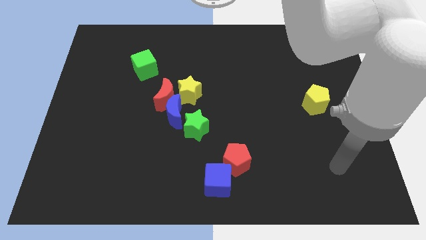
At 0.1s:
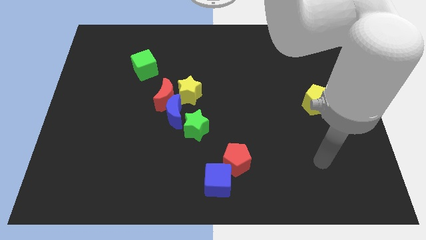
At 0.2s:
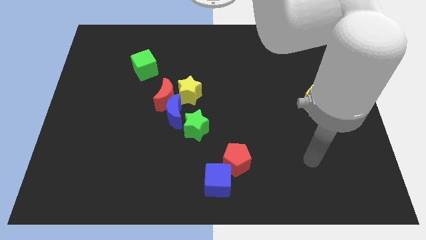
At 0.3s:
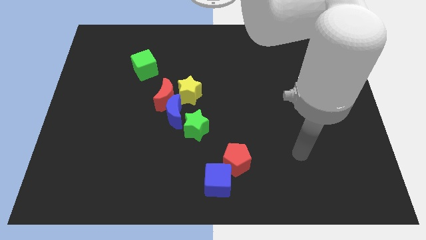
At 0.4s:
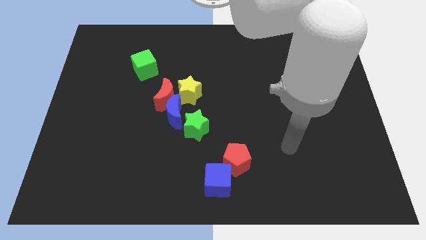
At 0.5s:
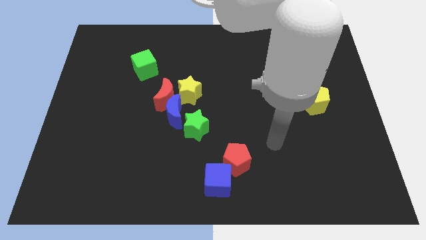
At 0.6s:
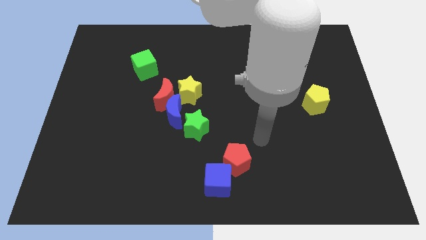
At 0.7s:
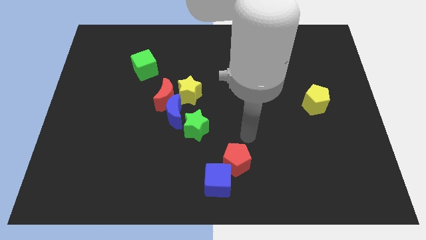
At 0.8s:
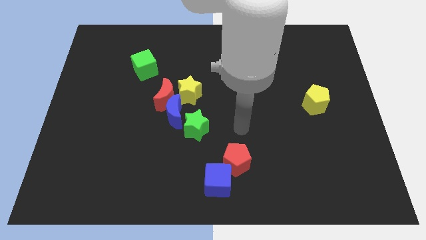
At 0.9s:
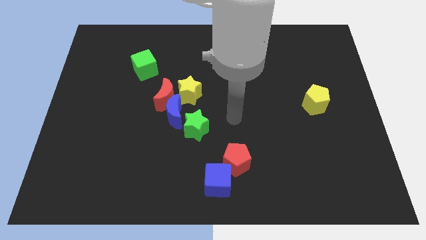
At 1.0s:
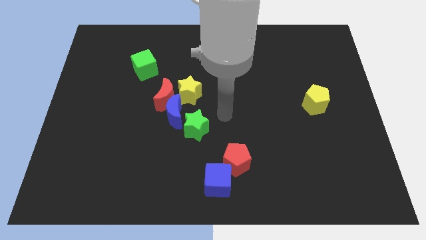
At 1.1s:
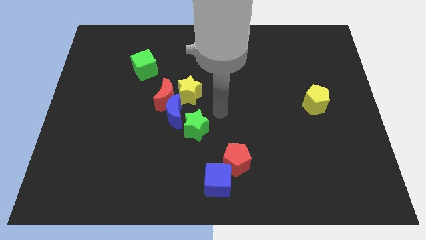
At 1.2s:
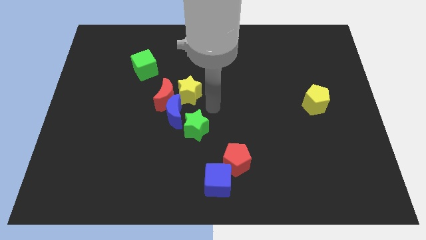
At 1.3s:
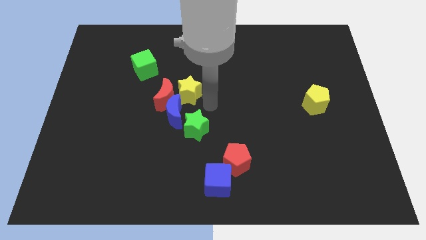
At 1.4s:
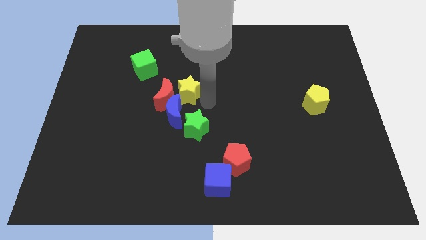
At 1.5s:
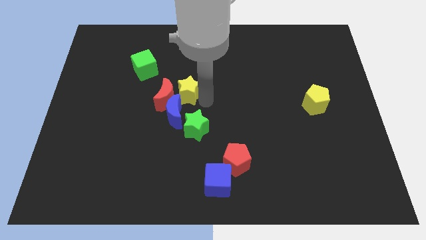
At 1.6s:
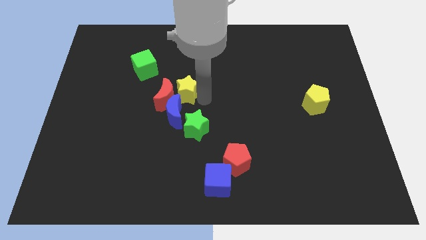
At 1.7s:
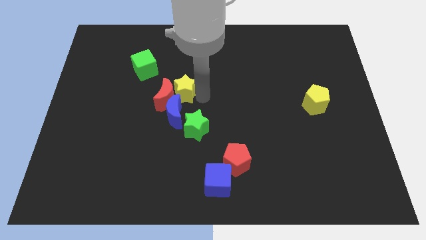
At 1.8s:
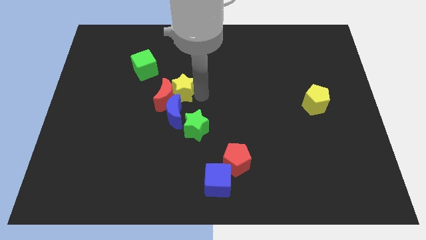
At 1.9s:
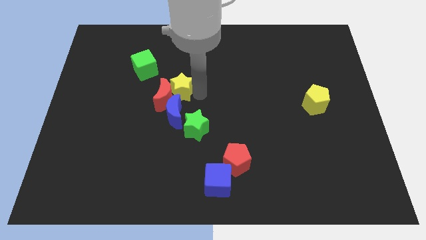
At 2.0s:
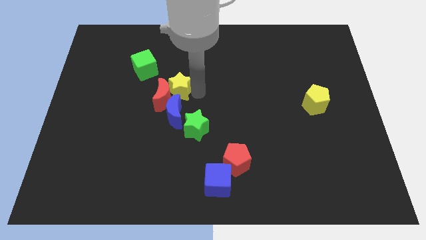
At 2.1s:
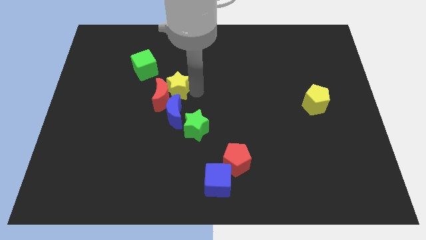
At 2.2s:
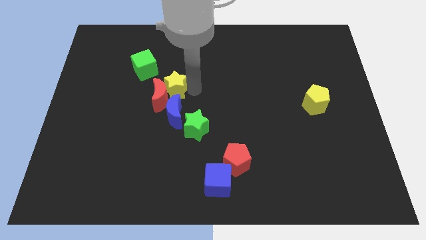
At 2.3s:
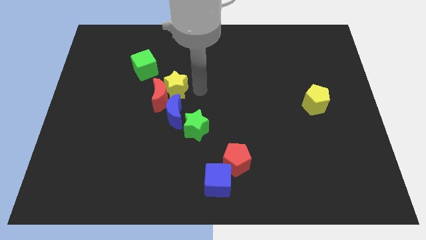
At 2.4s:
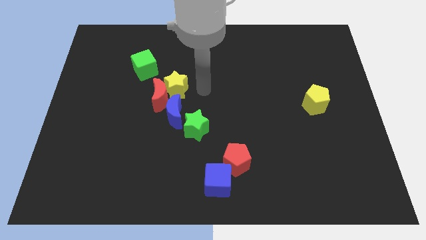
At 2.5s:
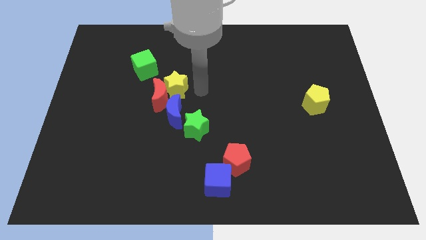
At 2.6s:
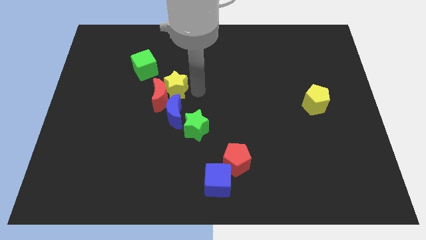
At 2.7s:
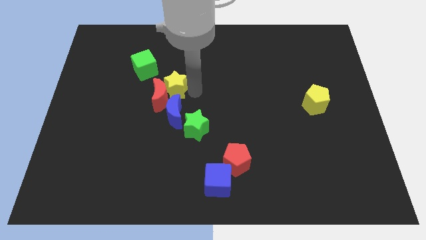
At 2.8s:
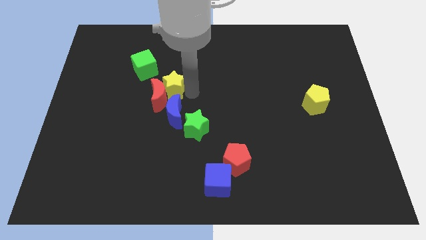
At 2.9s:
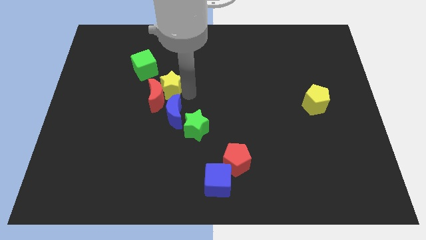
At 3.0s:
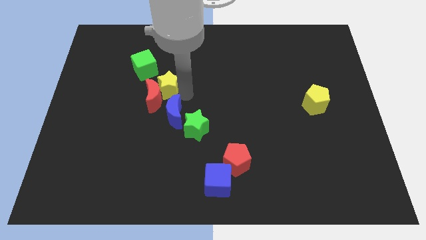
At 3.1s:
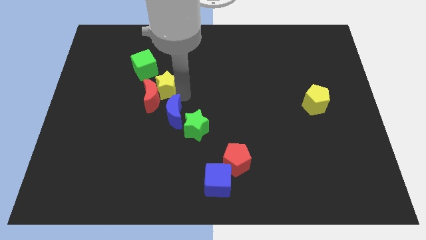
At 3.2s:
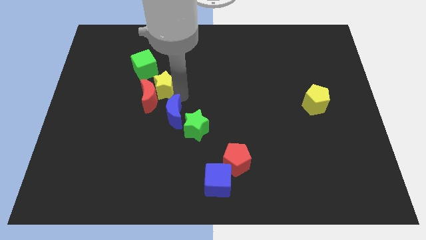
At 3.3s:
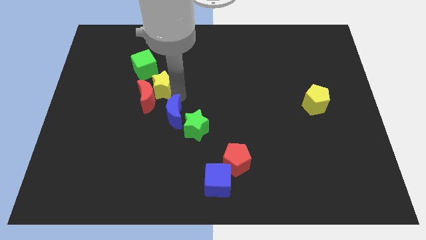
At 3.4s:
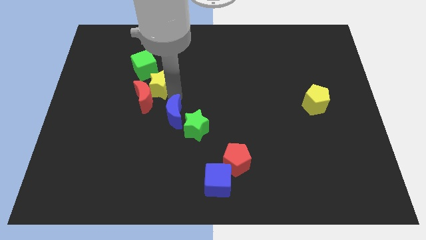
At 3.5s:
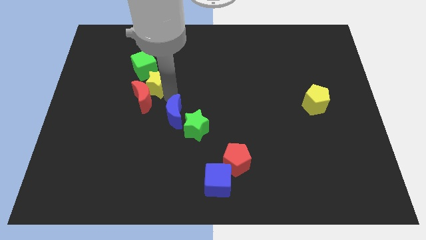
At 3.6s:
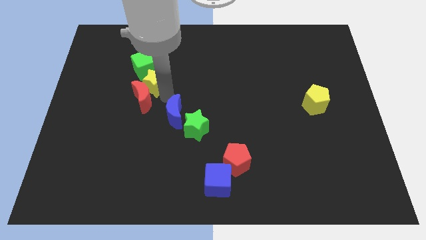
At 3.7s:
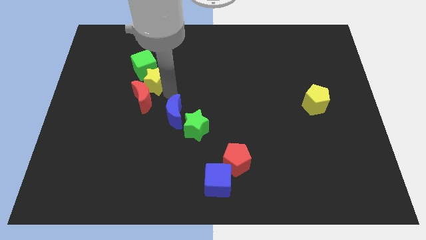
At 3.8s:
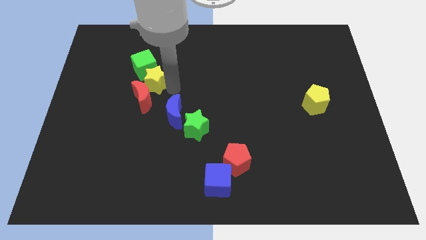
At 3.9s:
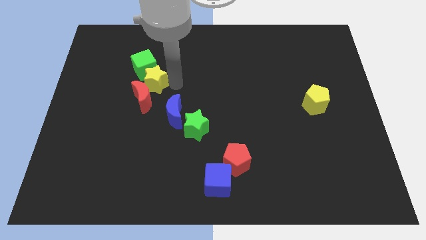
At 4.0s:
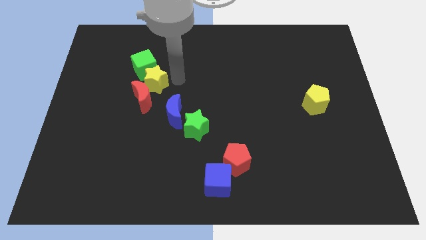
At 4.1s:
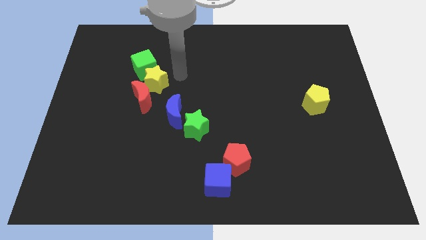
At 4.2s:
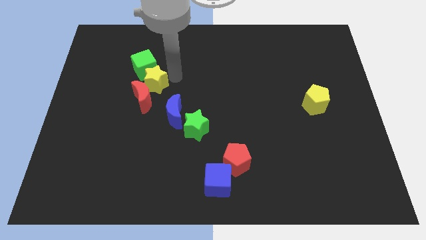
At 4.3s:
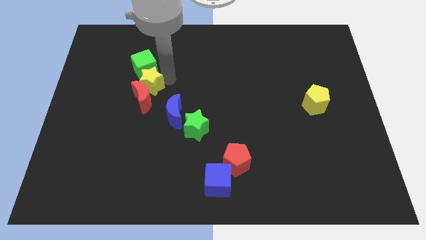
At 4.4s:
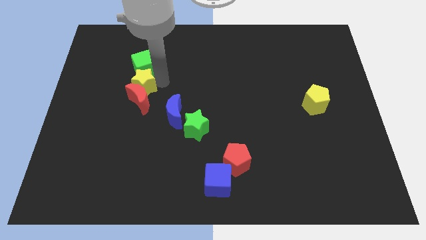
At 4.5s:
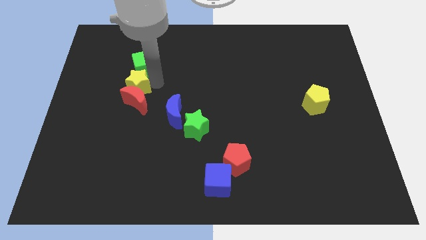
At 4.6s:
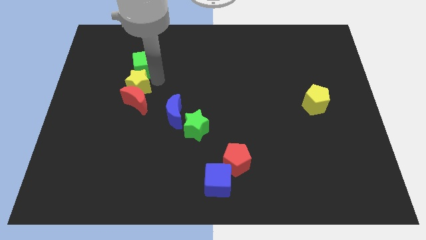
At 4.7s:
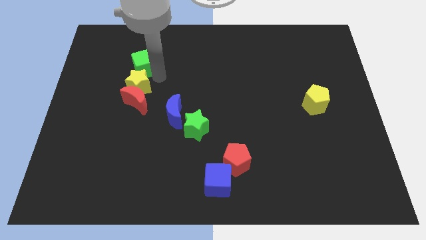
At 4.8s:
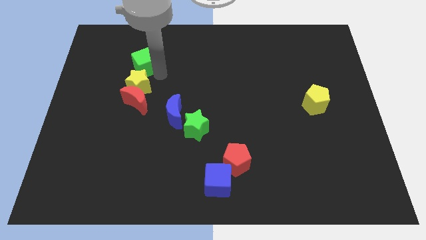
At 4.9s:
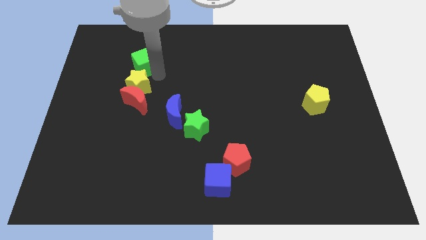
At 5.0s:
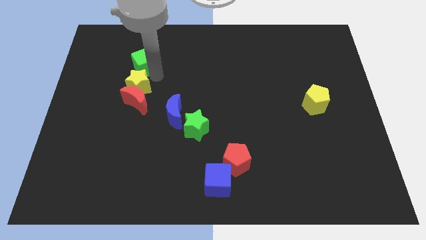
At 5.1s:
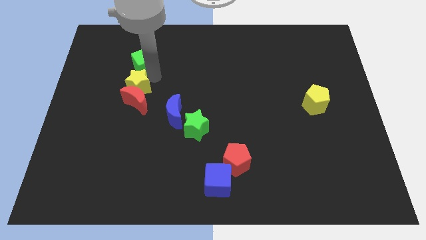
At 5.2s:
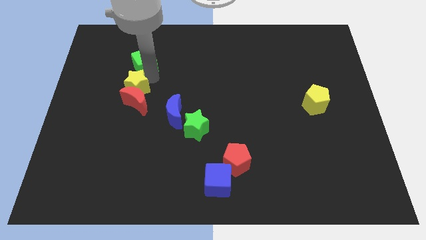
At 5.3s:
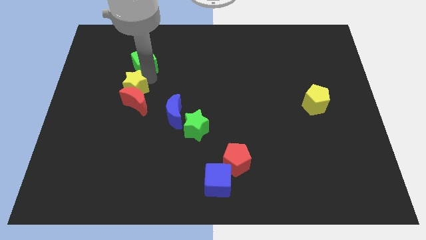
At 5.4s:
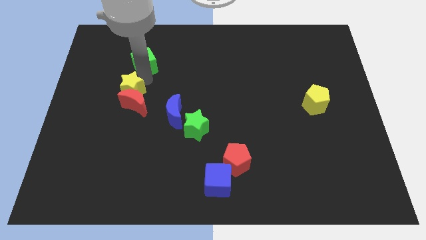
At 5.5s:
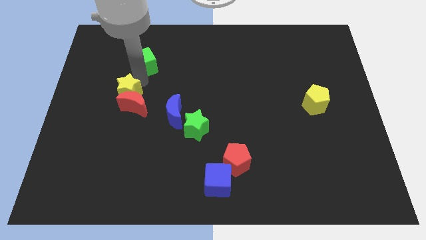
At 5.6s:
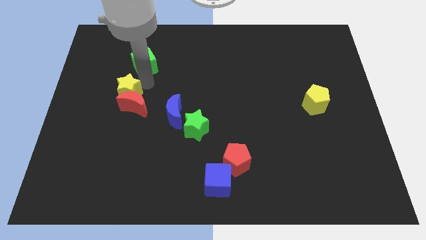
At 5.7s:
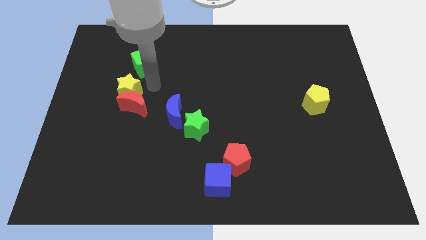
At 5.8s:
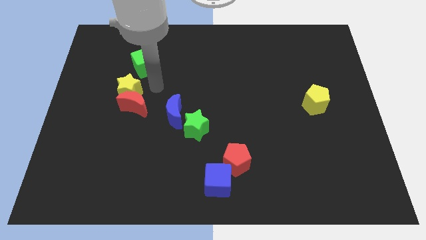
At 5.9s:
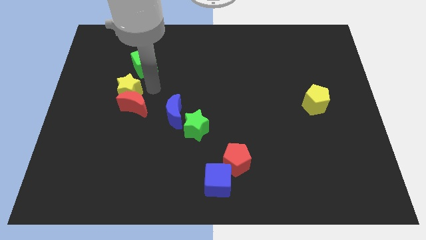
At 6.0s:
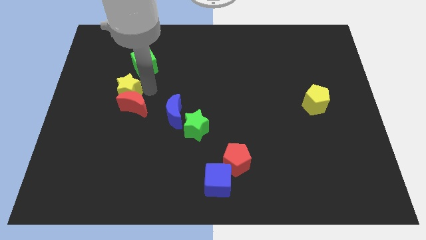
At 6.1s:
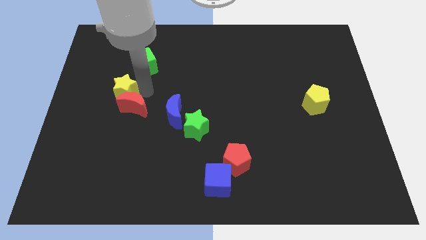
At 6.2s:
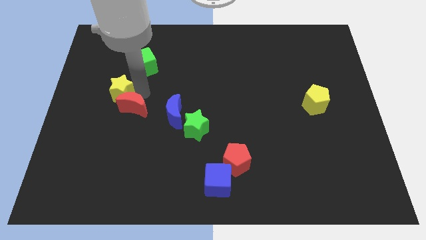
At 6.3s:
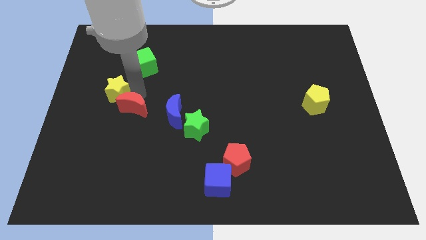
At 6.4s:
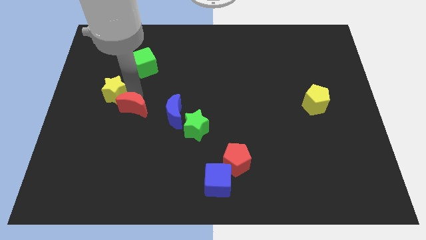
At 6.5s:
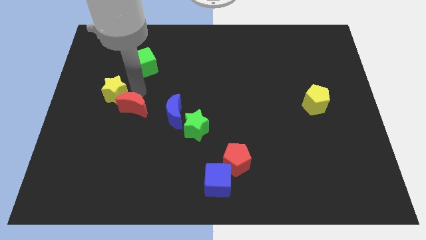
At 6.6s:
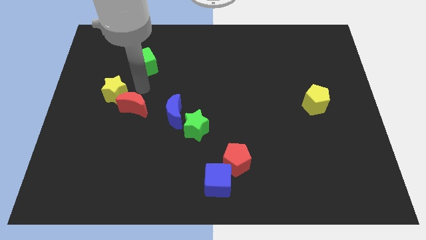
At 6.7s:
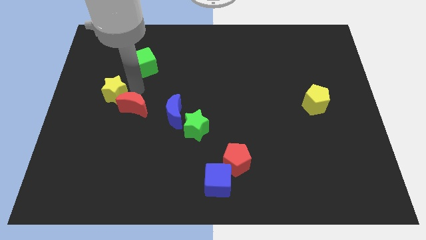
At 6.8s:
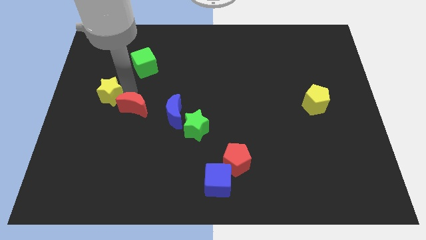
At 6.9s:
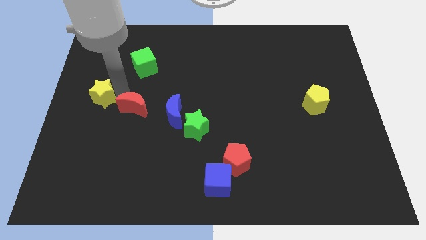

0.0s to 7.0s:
slide the yellow star to the left side of the board
